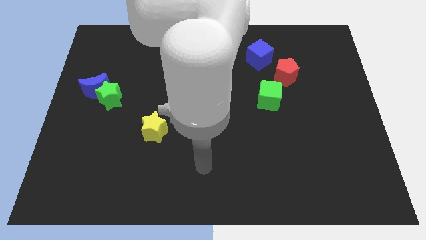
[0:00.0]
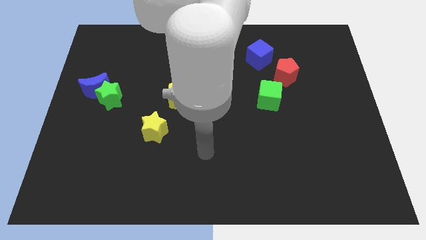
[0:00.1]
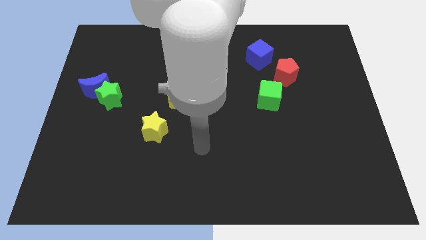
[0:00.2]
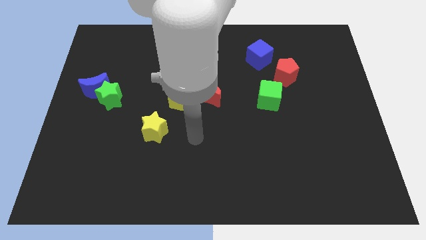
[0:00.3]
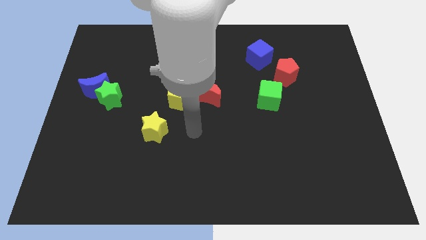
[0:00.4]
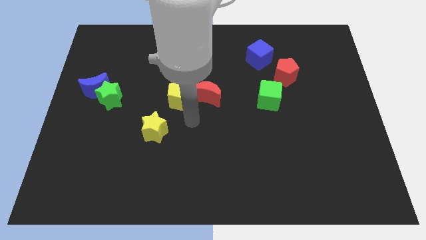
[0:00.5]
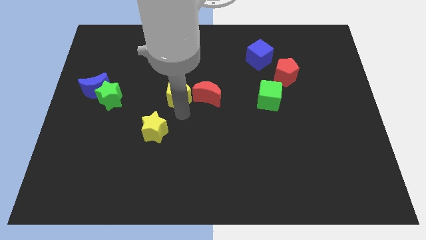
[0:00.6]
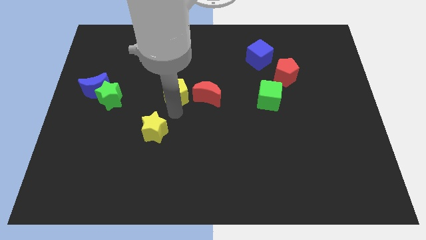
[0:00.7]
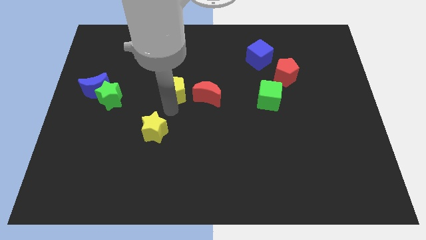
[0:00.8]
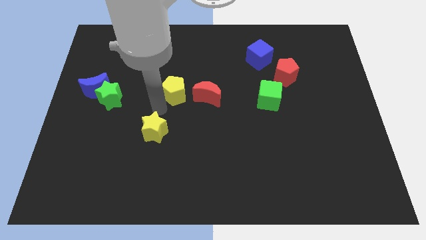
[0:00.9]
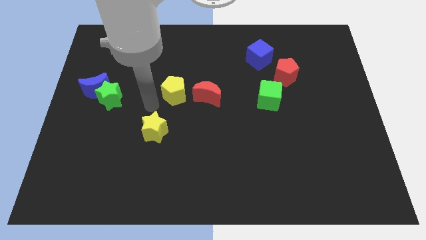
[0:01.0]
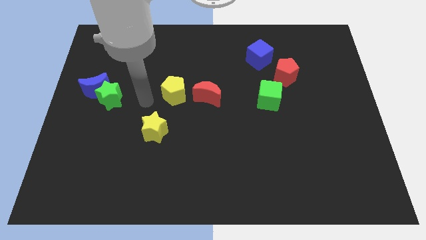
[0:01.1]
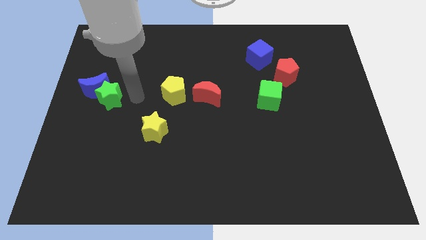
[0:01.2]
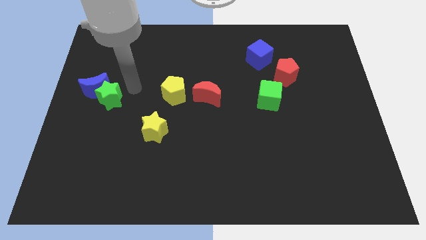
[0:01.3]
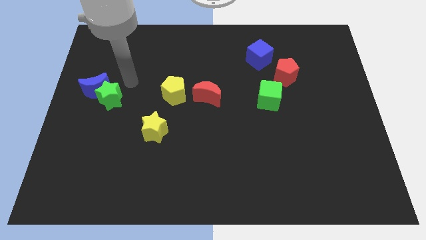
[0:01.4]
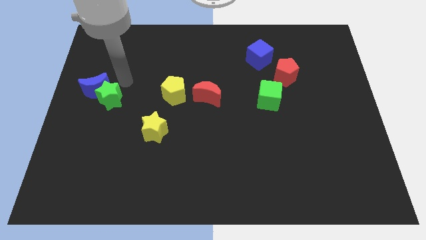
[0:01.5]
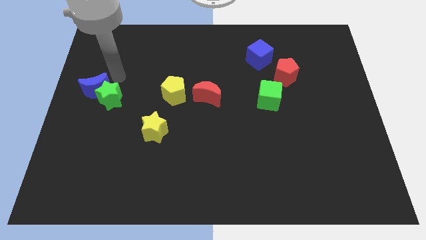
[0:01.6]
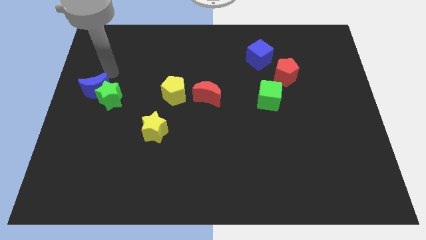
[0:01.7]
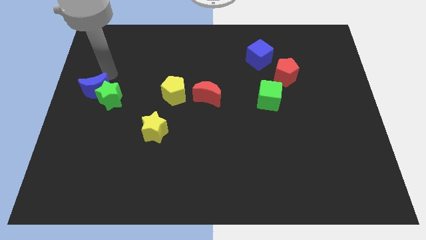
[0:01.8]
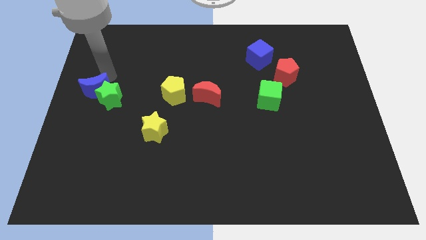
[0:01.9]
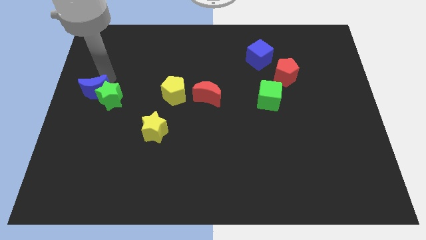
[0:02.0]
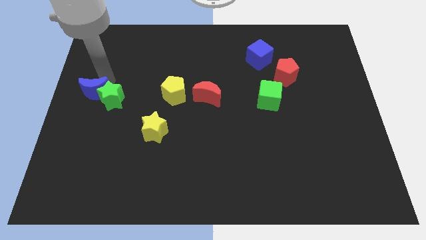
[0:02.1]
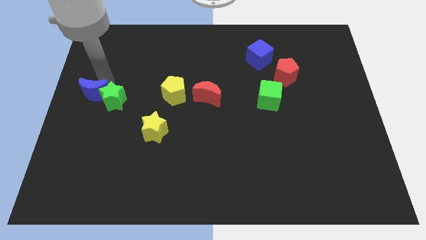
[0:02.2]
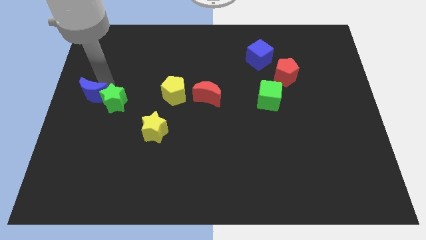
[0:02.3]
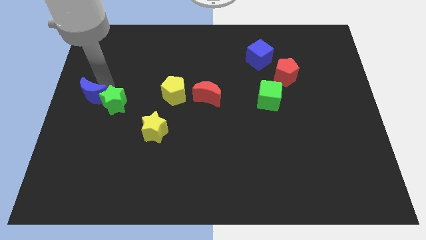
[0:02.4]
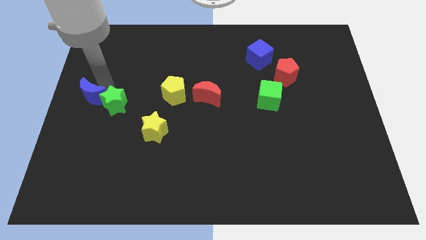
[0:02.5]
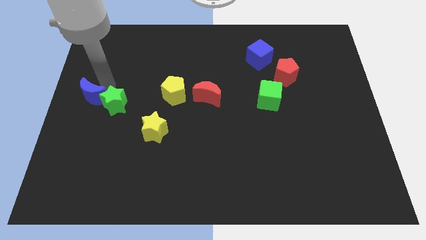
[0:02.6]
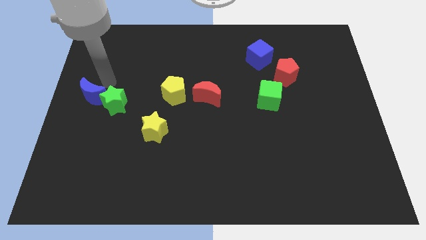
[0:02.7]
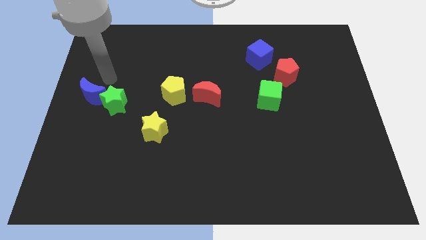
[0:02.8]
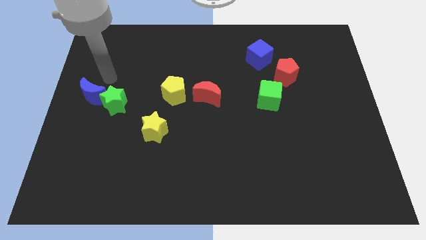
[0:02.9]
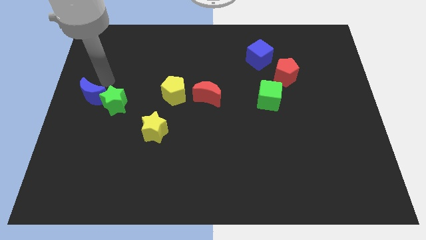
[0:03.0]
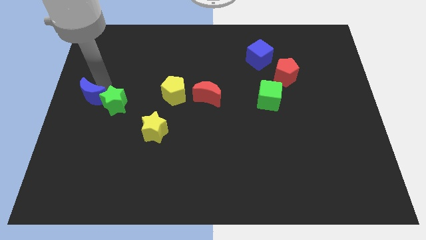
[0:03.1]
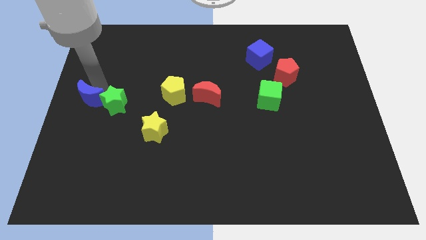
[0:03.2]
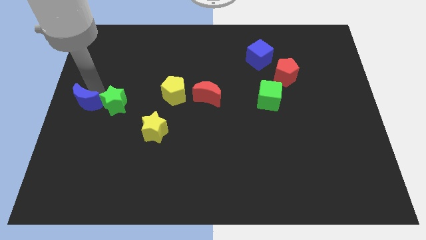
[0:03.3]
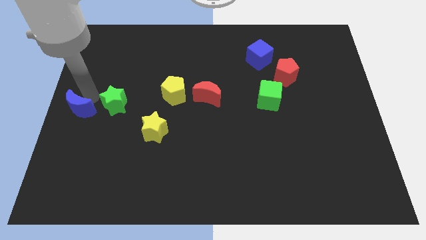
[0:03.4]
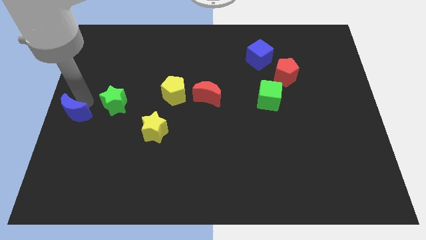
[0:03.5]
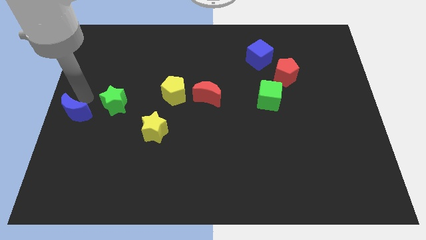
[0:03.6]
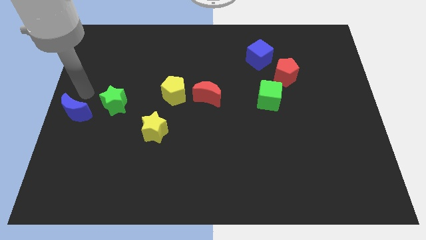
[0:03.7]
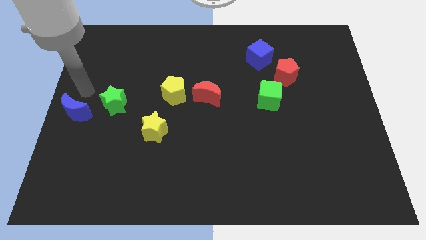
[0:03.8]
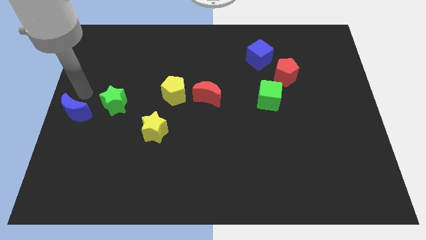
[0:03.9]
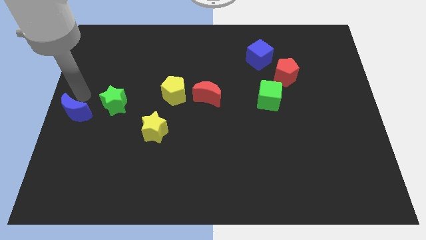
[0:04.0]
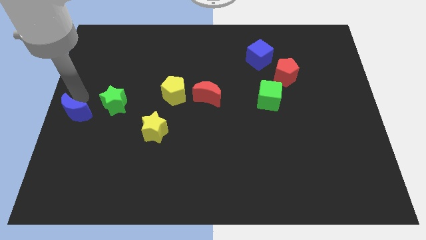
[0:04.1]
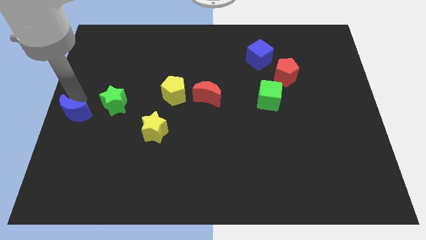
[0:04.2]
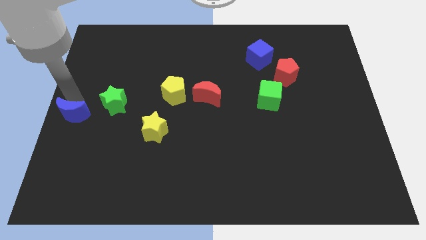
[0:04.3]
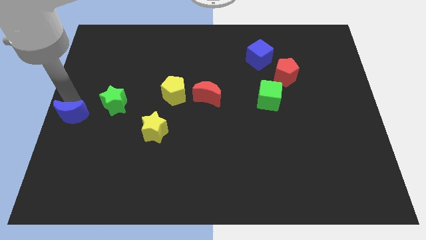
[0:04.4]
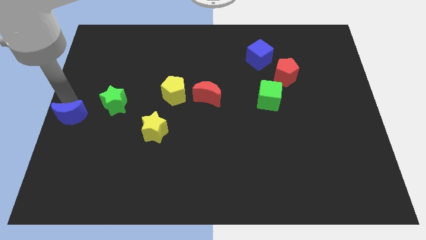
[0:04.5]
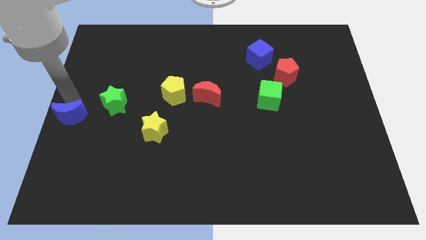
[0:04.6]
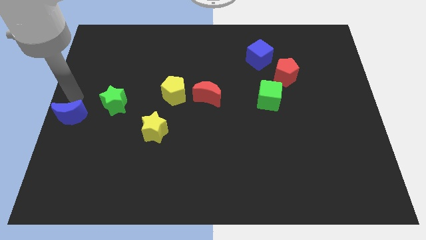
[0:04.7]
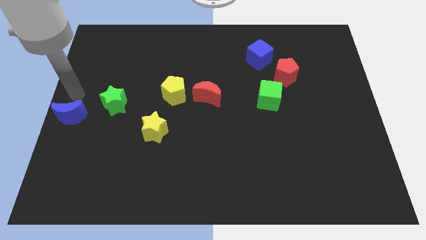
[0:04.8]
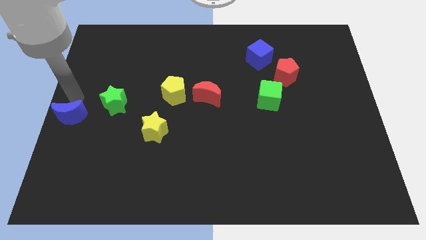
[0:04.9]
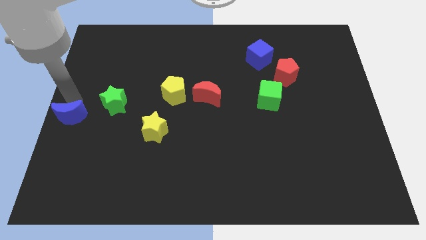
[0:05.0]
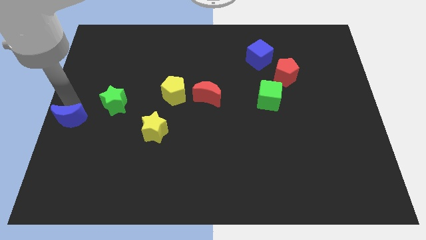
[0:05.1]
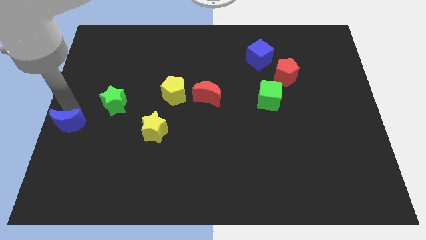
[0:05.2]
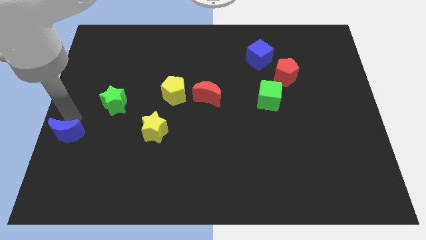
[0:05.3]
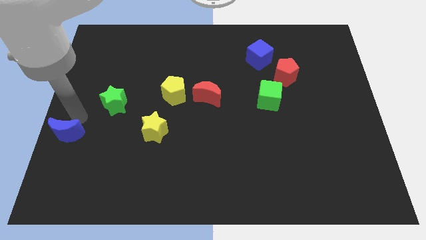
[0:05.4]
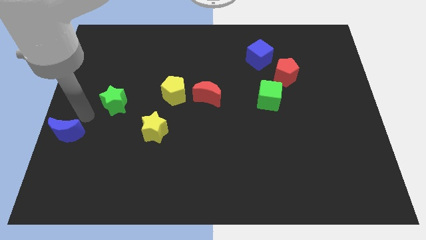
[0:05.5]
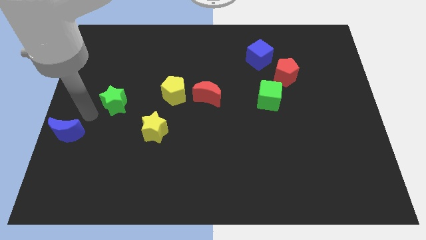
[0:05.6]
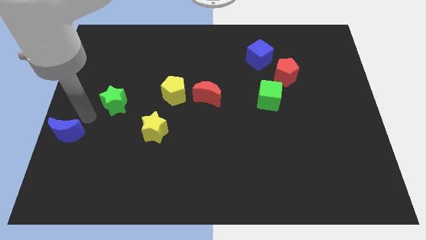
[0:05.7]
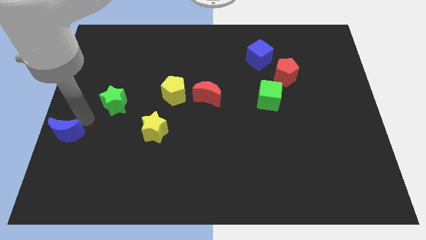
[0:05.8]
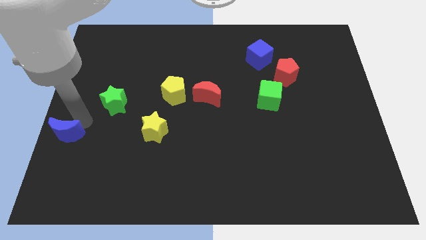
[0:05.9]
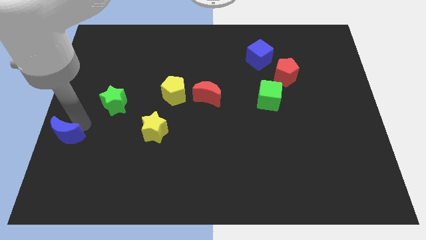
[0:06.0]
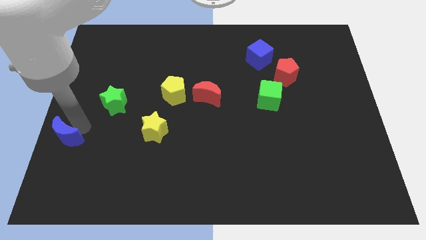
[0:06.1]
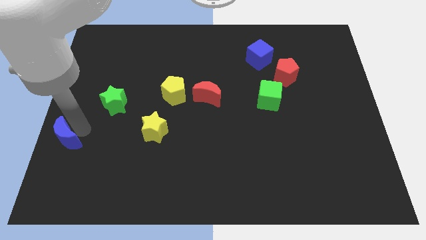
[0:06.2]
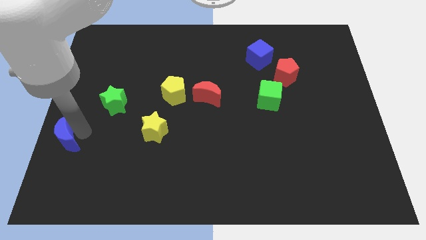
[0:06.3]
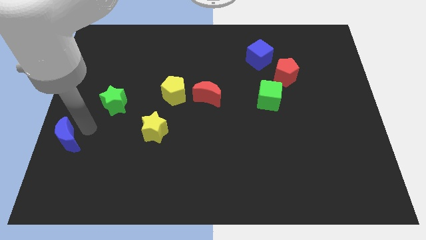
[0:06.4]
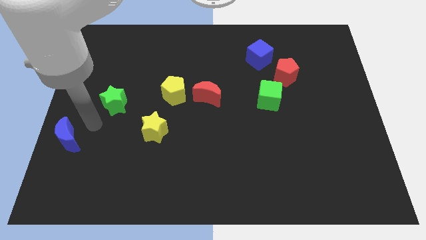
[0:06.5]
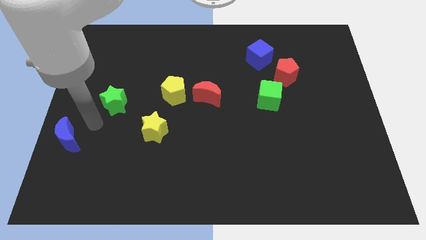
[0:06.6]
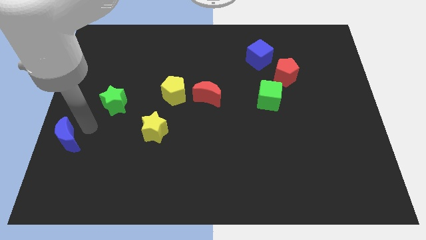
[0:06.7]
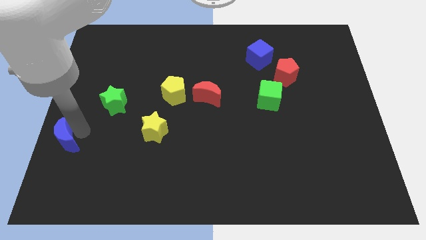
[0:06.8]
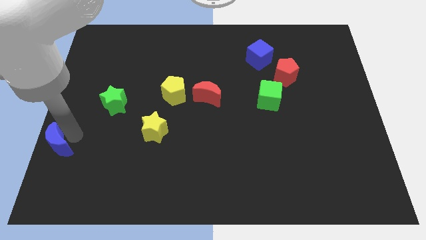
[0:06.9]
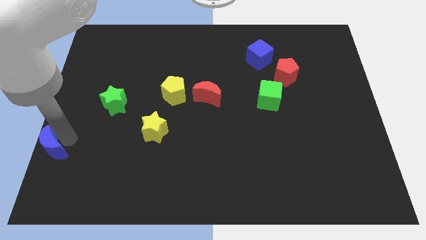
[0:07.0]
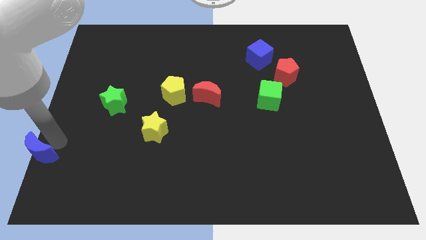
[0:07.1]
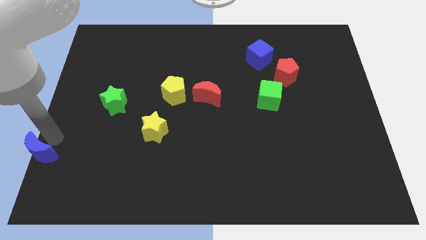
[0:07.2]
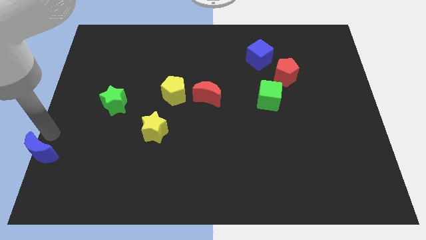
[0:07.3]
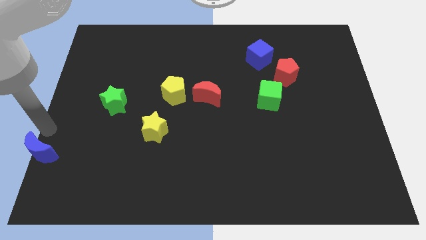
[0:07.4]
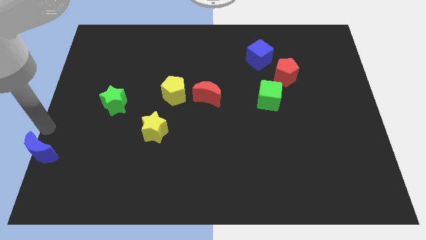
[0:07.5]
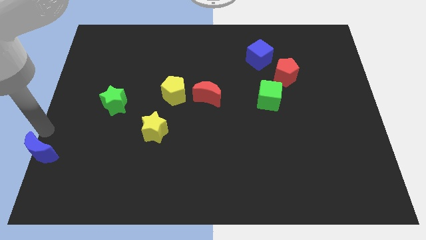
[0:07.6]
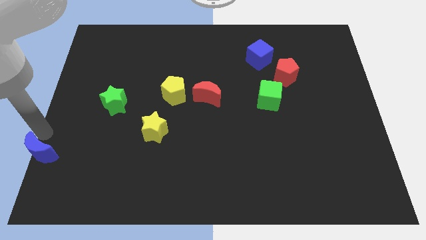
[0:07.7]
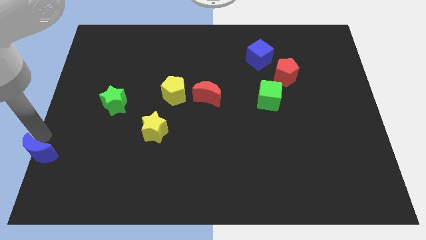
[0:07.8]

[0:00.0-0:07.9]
push the blue moon to the bottom left corner
